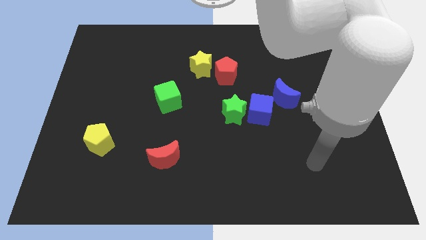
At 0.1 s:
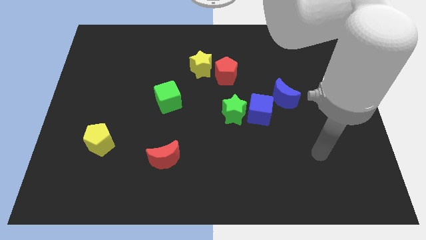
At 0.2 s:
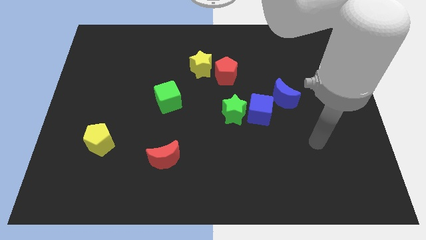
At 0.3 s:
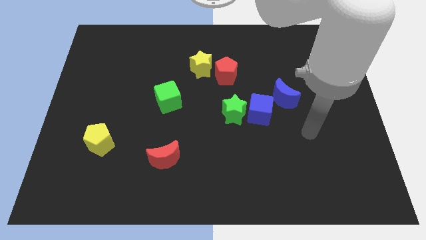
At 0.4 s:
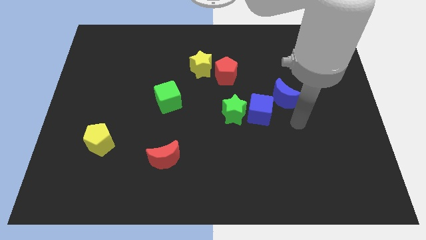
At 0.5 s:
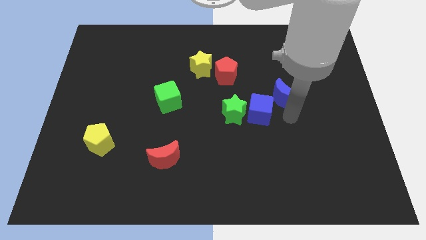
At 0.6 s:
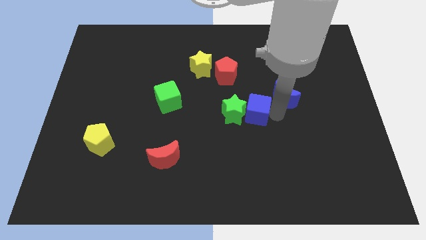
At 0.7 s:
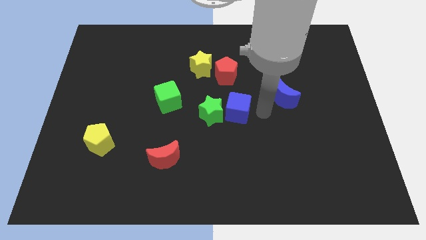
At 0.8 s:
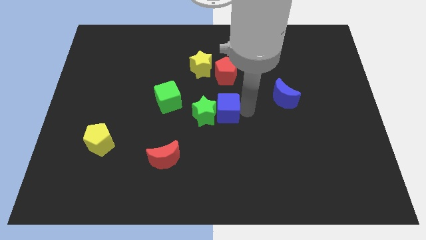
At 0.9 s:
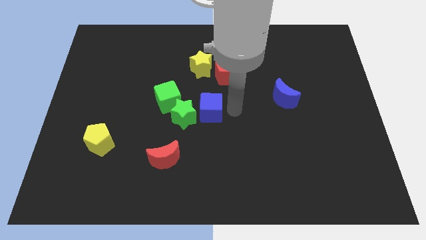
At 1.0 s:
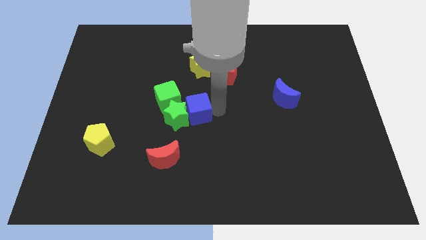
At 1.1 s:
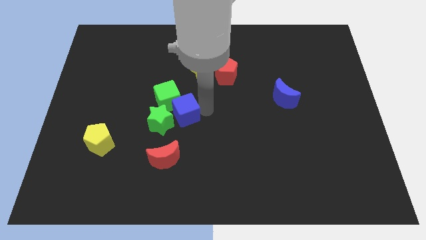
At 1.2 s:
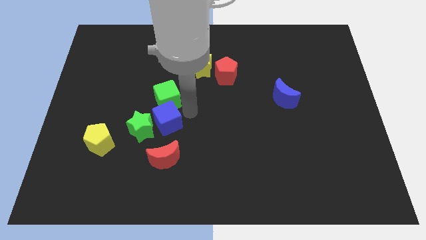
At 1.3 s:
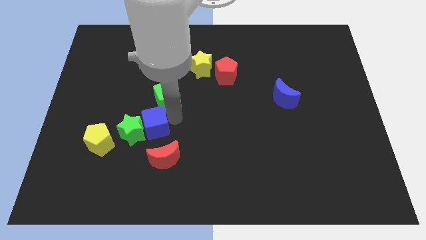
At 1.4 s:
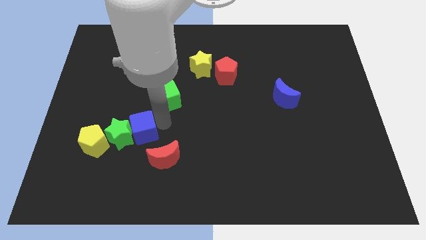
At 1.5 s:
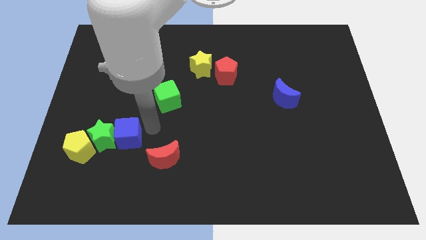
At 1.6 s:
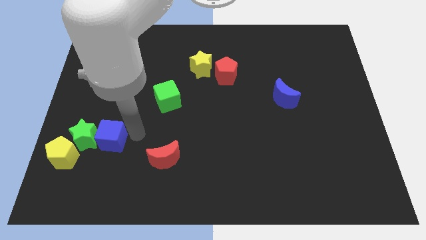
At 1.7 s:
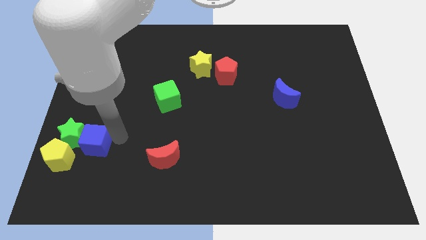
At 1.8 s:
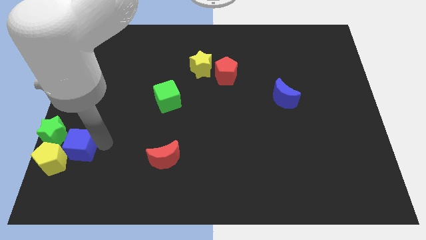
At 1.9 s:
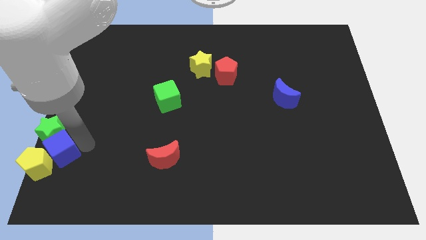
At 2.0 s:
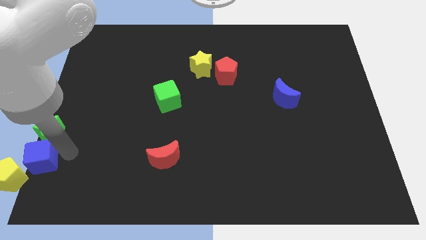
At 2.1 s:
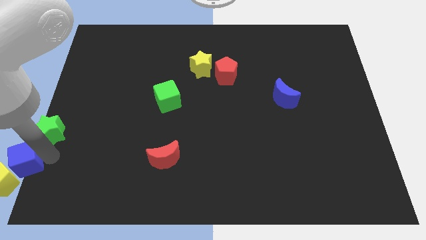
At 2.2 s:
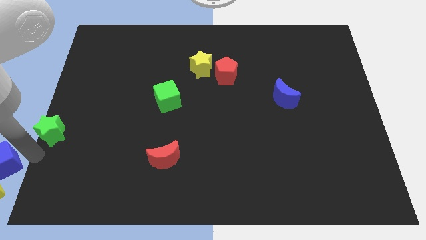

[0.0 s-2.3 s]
separate the green star from the blue cube

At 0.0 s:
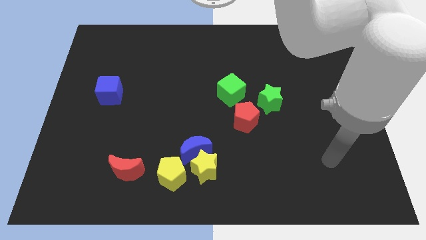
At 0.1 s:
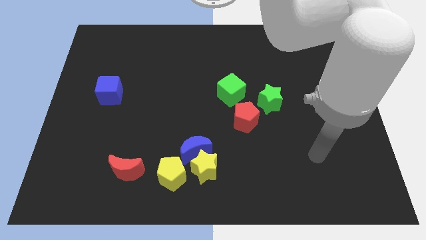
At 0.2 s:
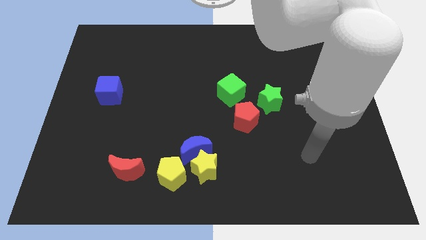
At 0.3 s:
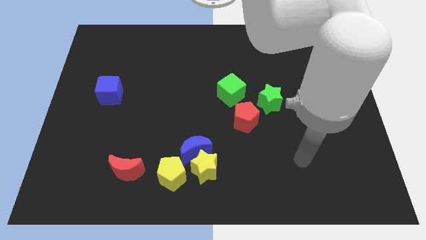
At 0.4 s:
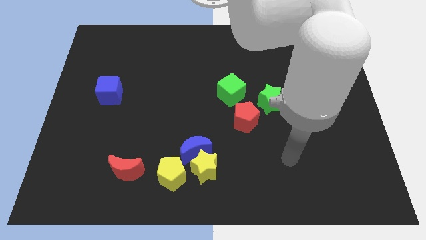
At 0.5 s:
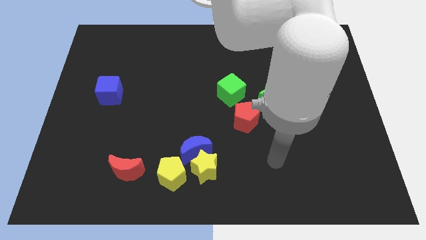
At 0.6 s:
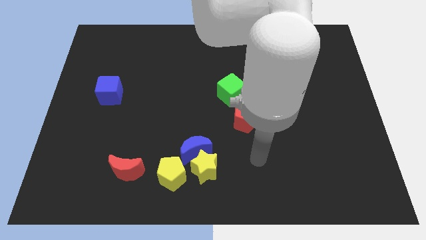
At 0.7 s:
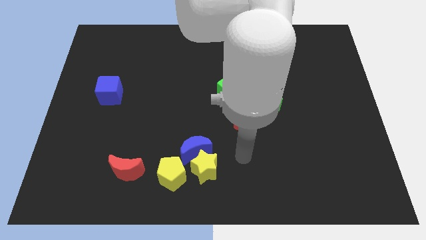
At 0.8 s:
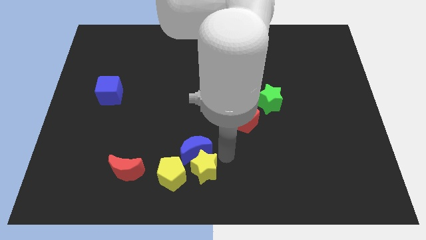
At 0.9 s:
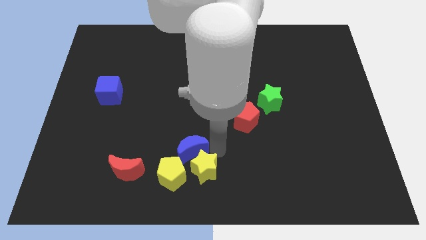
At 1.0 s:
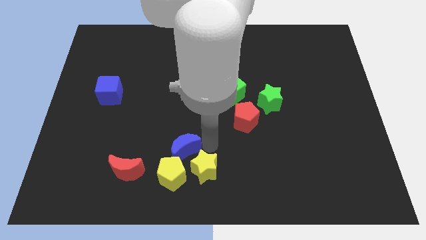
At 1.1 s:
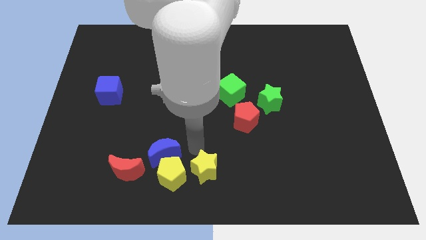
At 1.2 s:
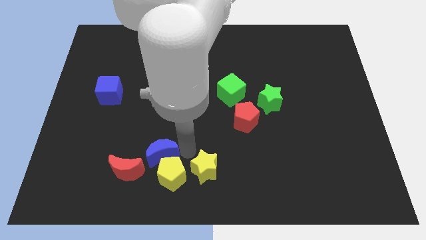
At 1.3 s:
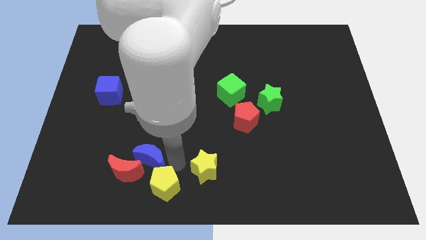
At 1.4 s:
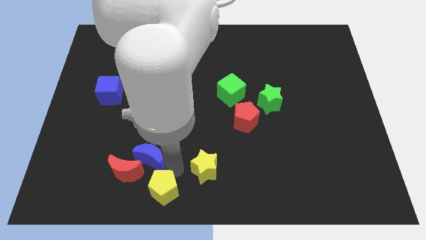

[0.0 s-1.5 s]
separate the yellow star from the blue moon and yellow pentagon

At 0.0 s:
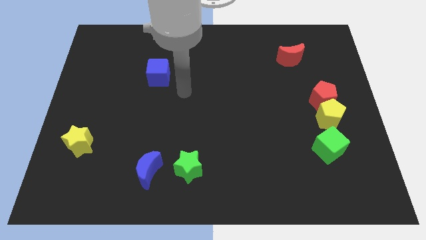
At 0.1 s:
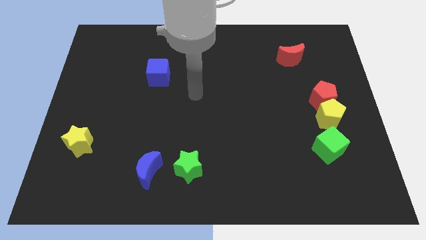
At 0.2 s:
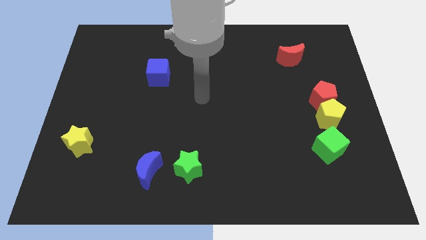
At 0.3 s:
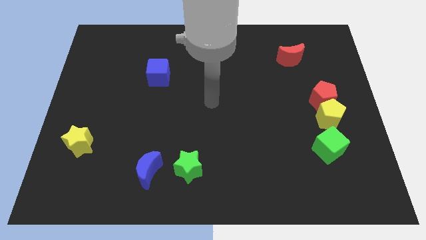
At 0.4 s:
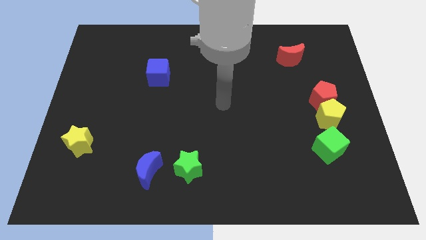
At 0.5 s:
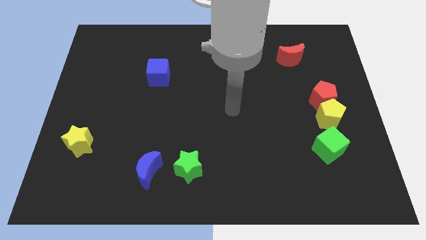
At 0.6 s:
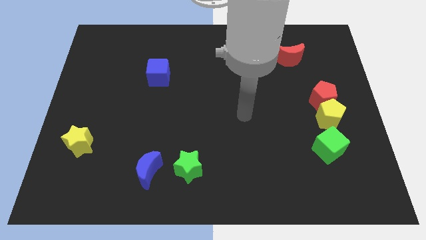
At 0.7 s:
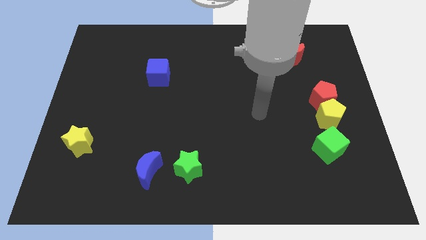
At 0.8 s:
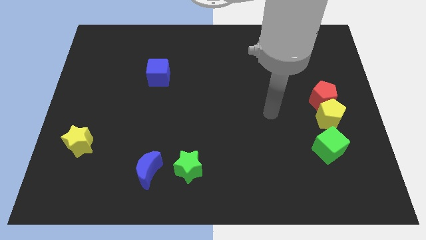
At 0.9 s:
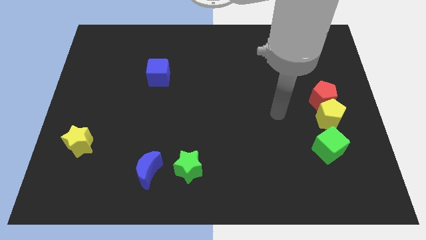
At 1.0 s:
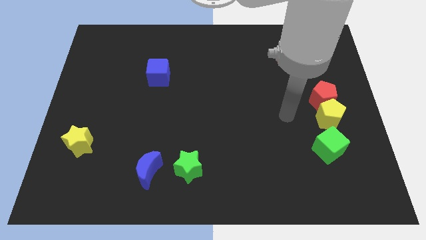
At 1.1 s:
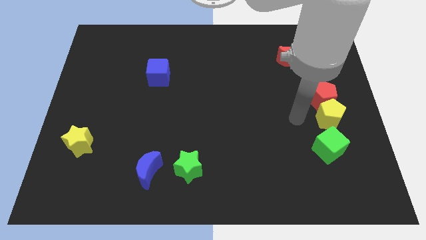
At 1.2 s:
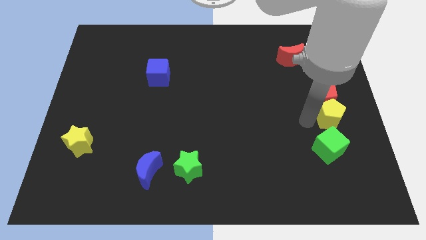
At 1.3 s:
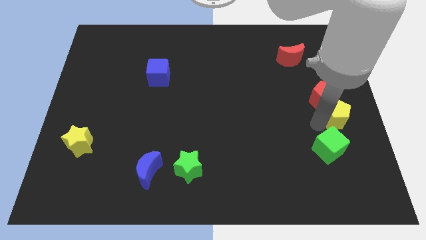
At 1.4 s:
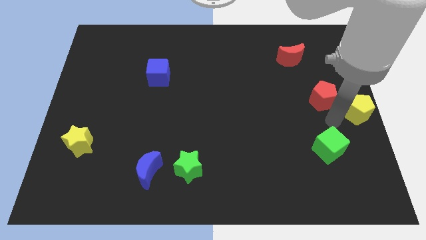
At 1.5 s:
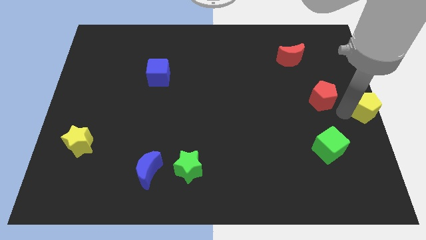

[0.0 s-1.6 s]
move the red pentagon away from the yellow pentagon

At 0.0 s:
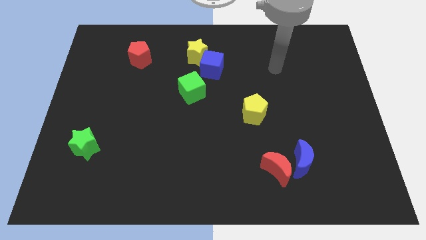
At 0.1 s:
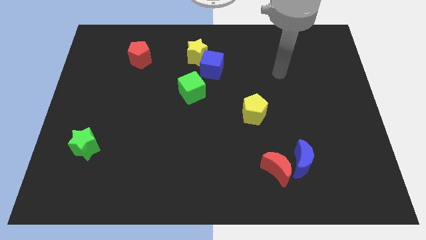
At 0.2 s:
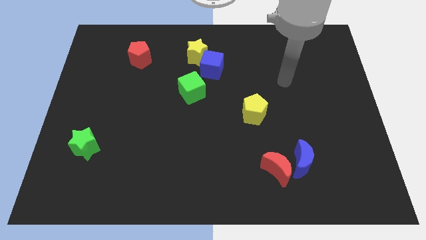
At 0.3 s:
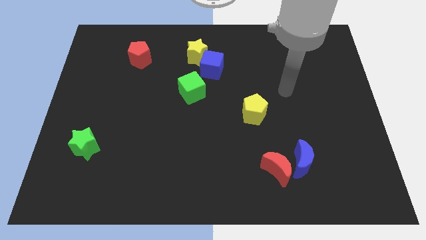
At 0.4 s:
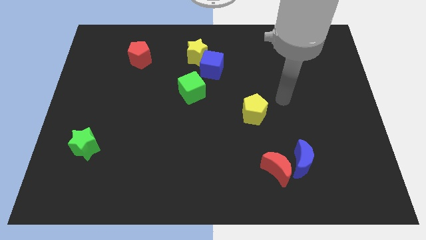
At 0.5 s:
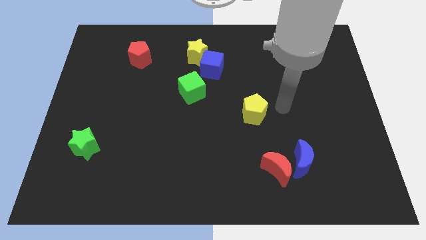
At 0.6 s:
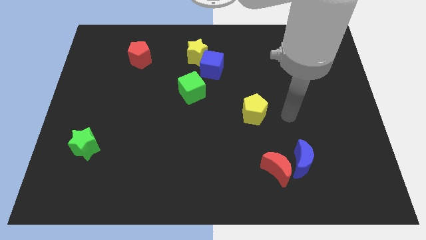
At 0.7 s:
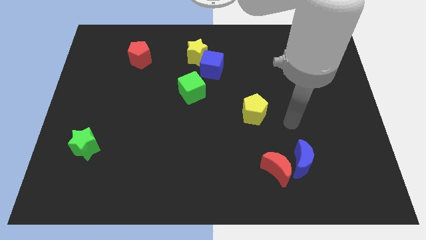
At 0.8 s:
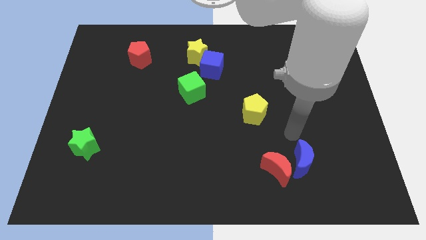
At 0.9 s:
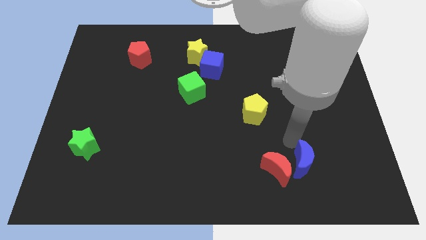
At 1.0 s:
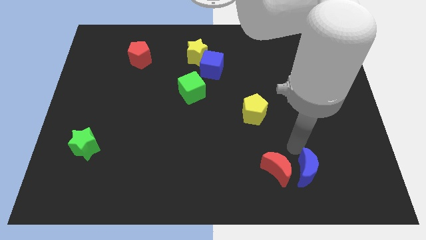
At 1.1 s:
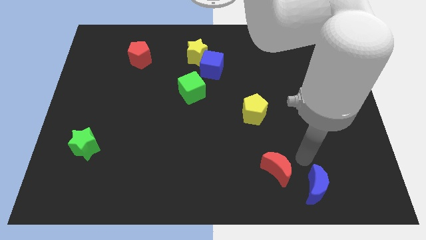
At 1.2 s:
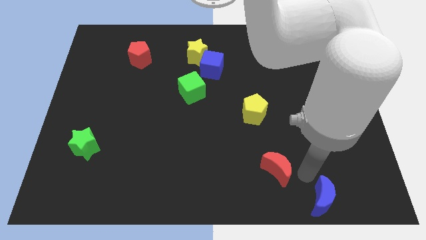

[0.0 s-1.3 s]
pull the red moon apart from the blue moon

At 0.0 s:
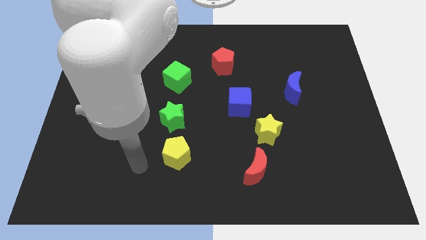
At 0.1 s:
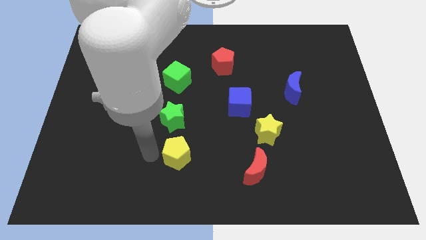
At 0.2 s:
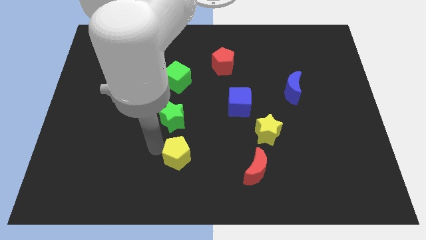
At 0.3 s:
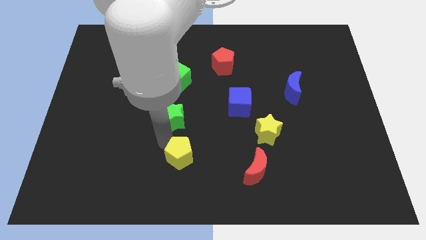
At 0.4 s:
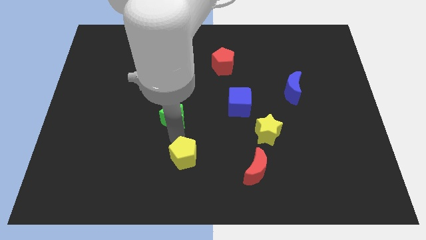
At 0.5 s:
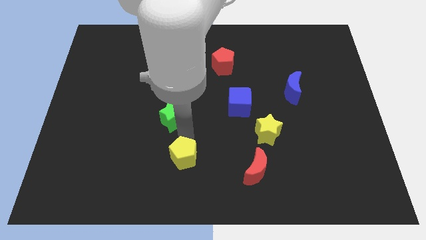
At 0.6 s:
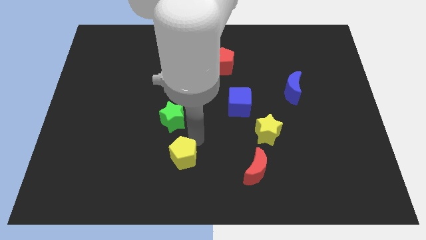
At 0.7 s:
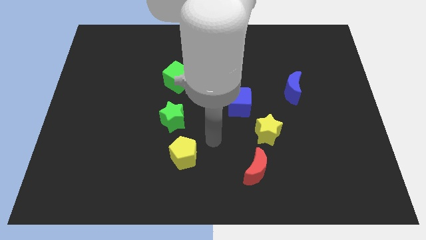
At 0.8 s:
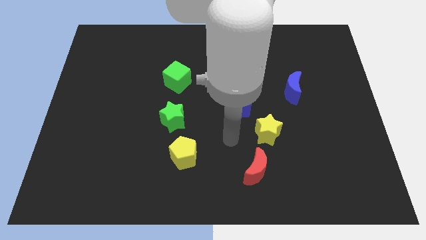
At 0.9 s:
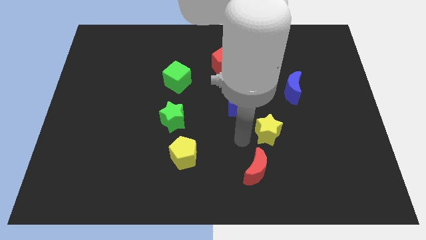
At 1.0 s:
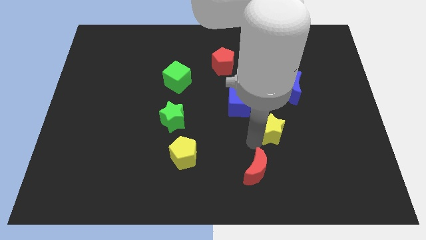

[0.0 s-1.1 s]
separate the red moon from the yellow star

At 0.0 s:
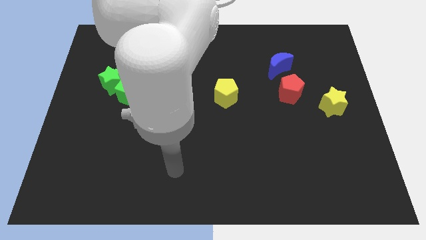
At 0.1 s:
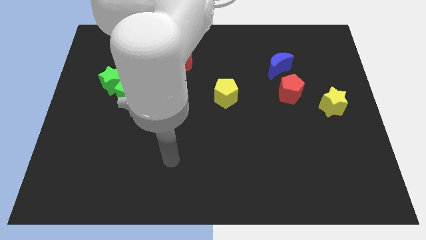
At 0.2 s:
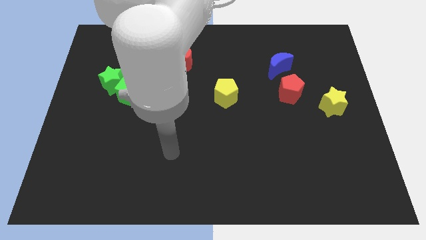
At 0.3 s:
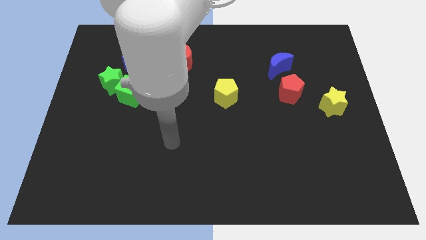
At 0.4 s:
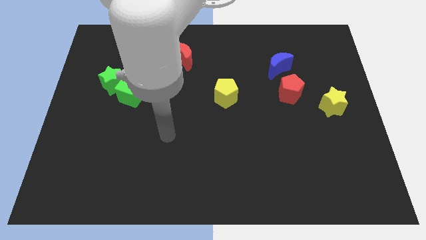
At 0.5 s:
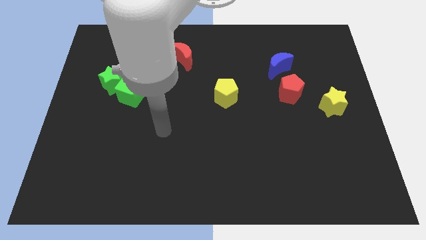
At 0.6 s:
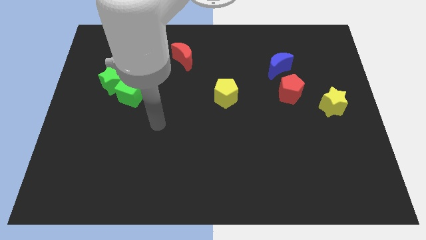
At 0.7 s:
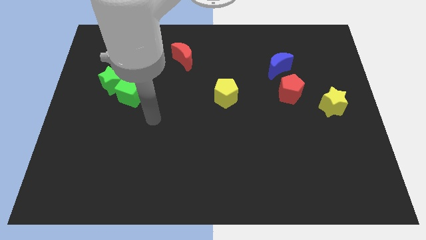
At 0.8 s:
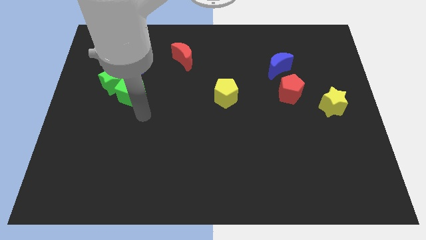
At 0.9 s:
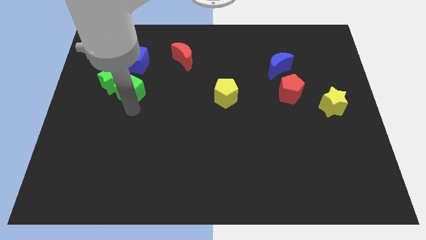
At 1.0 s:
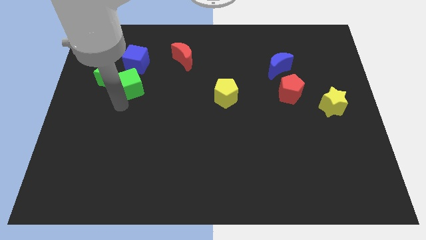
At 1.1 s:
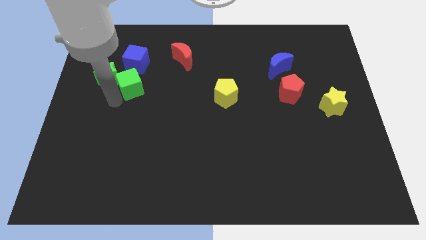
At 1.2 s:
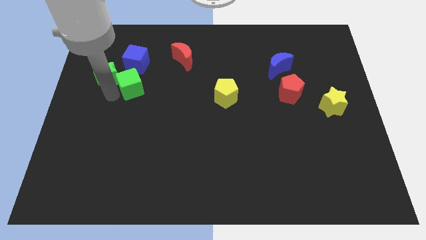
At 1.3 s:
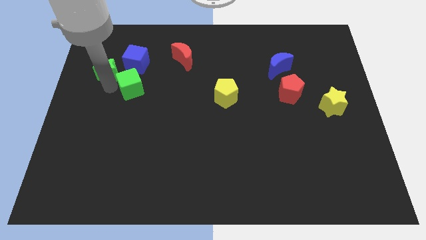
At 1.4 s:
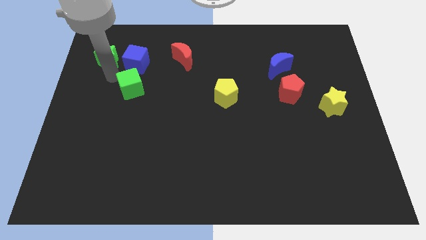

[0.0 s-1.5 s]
separate the green cube from the green star
